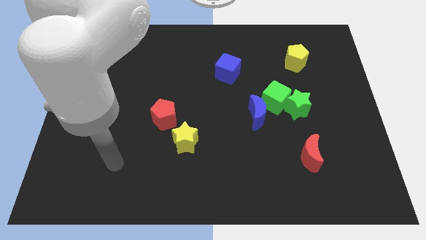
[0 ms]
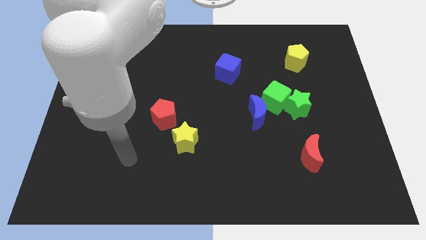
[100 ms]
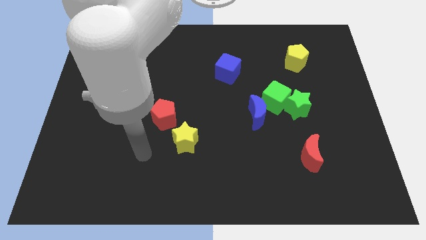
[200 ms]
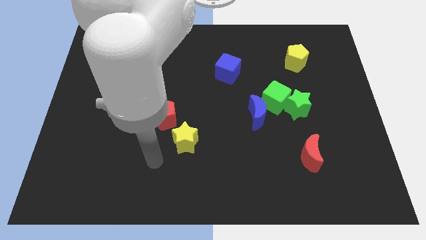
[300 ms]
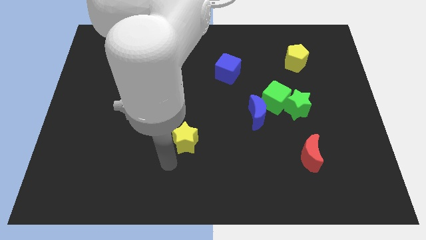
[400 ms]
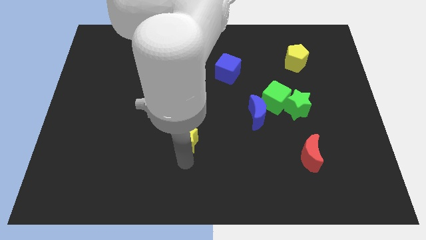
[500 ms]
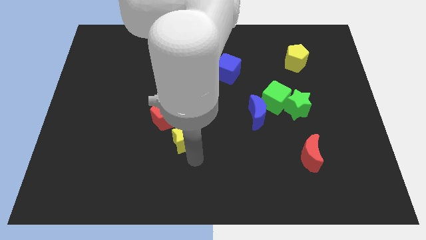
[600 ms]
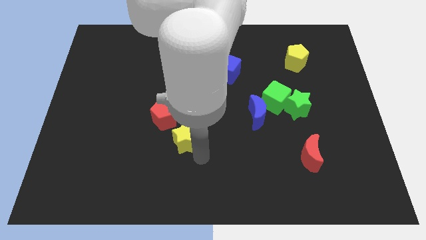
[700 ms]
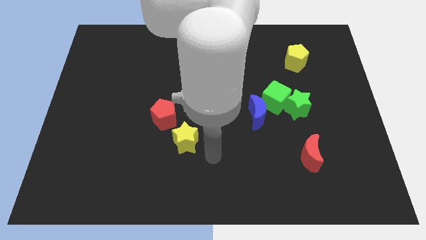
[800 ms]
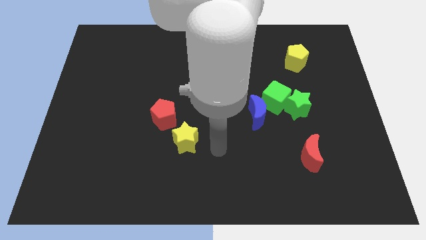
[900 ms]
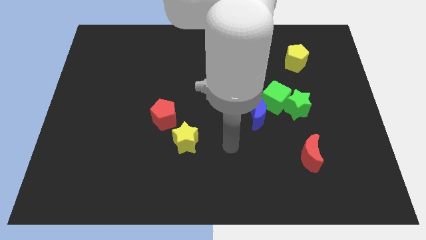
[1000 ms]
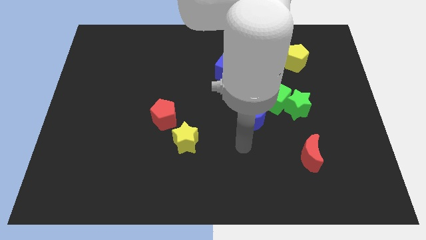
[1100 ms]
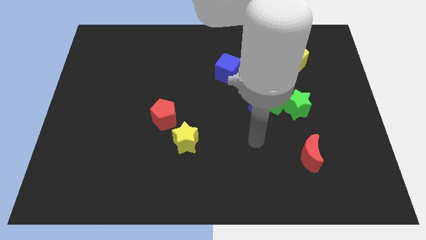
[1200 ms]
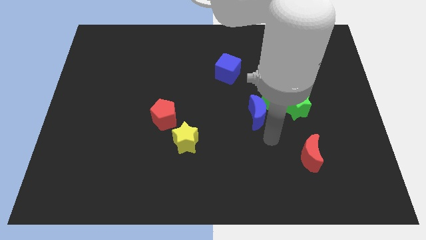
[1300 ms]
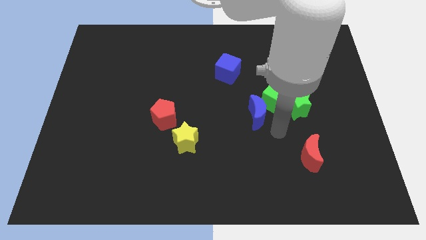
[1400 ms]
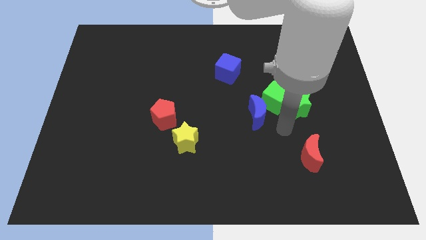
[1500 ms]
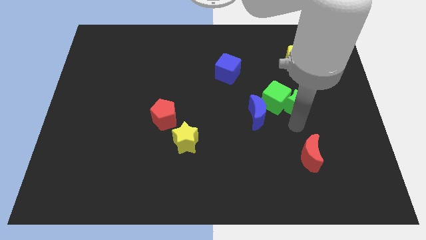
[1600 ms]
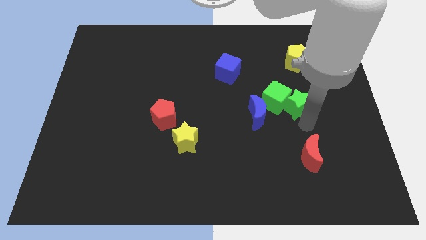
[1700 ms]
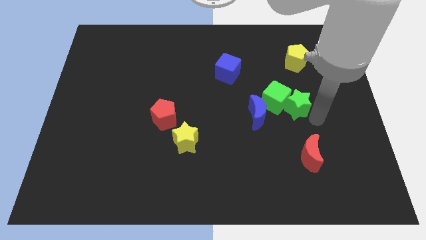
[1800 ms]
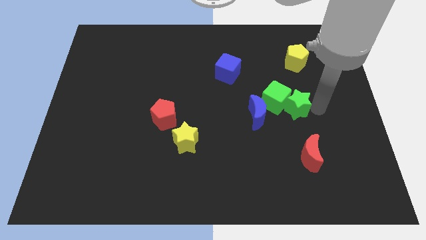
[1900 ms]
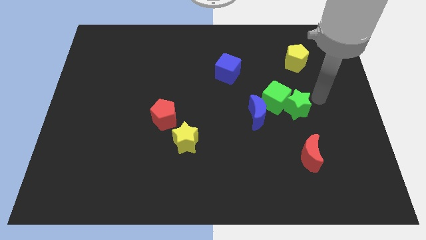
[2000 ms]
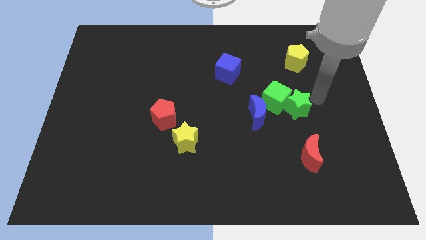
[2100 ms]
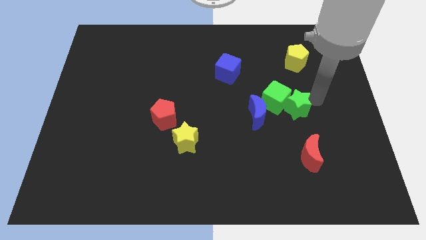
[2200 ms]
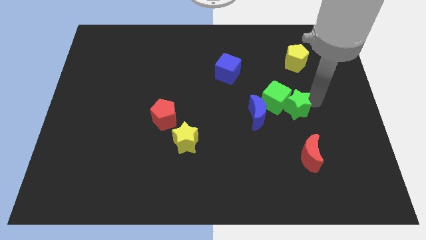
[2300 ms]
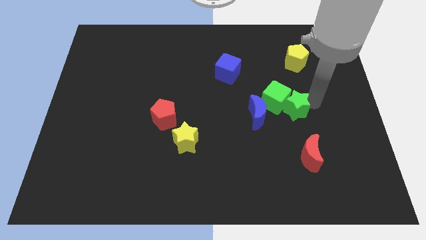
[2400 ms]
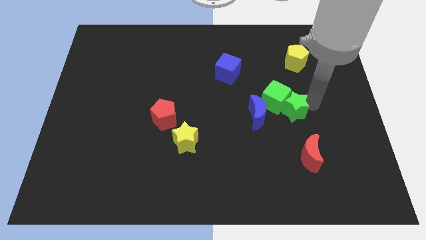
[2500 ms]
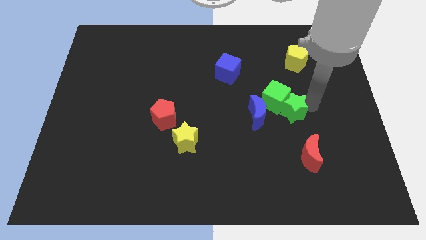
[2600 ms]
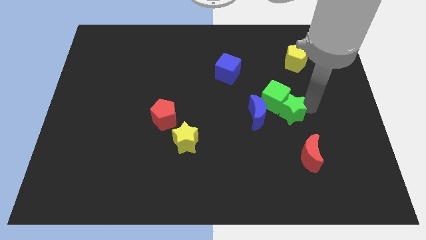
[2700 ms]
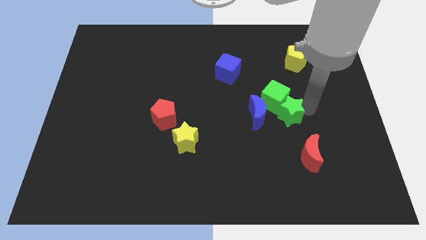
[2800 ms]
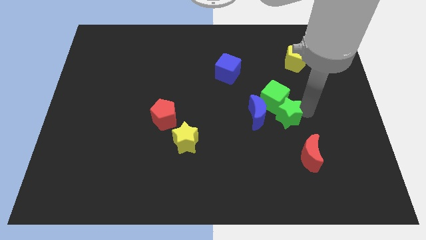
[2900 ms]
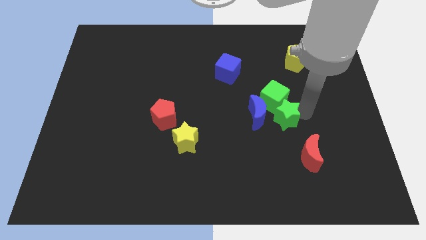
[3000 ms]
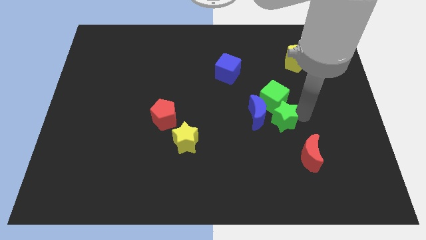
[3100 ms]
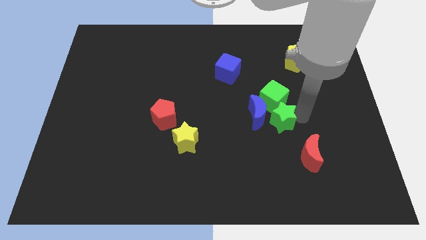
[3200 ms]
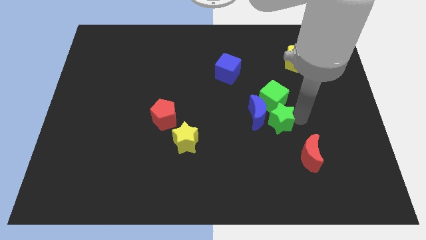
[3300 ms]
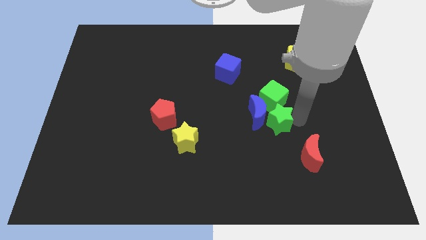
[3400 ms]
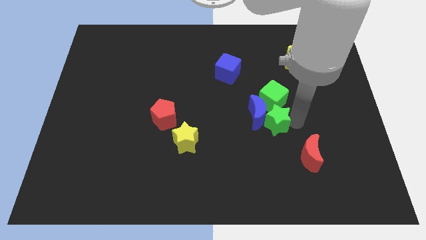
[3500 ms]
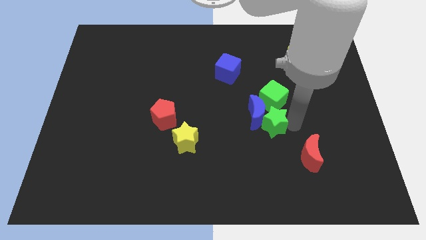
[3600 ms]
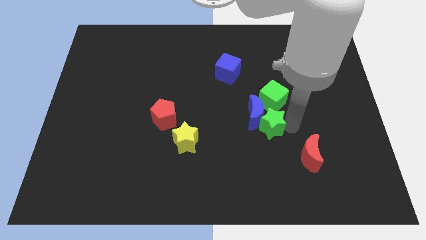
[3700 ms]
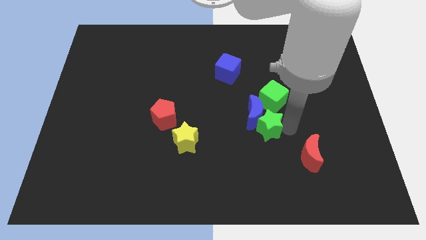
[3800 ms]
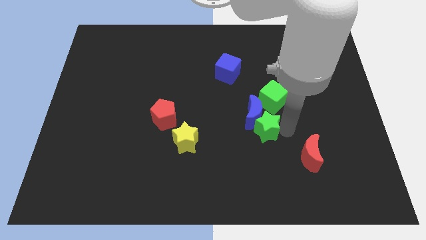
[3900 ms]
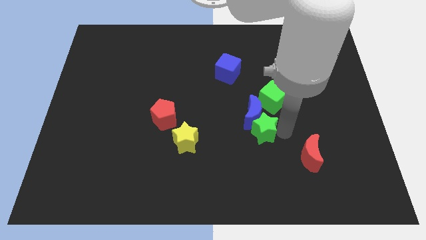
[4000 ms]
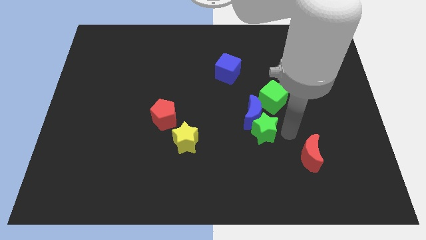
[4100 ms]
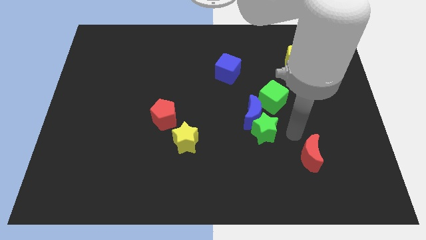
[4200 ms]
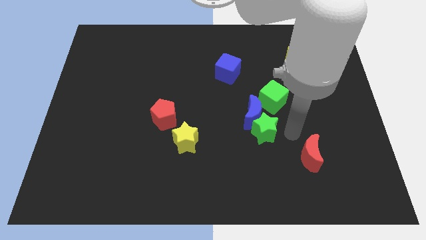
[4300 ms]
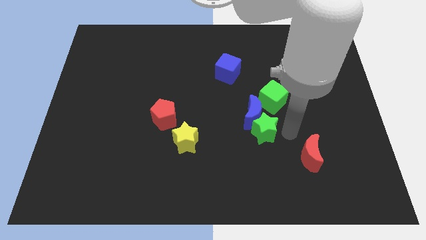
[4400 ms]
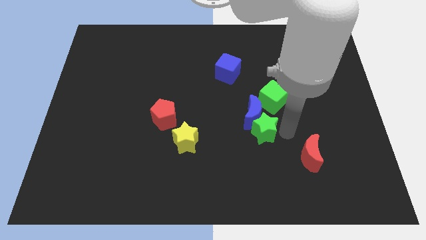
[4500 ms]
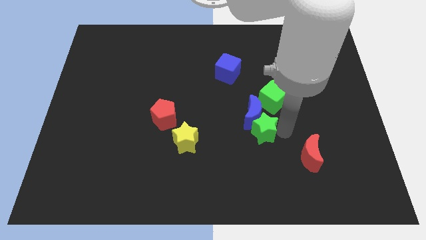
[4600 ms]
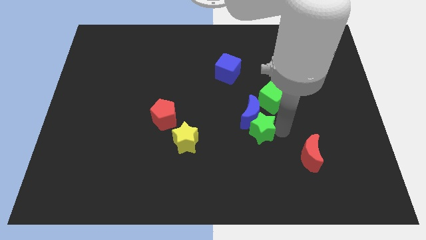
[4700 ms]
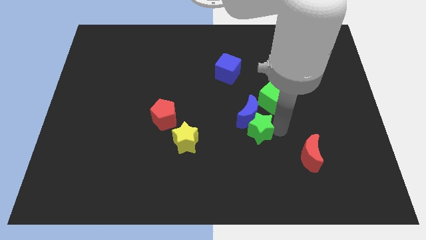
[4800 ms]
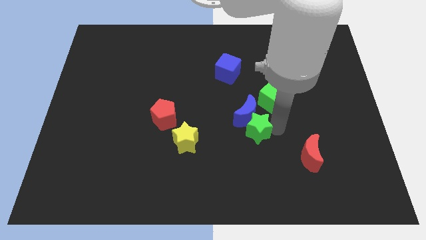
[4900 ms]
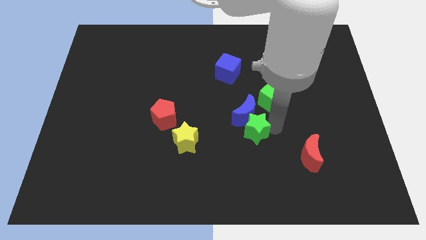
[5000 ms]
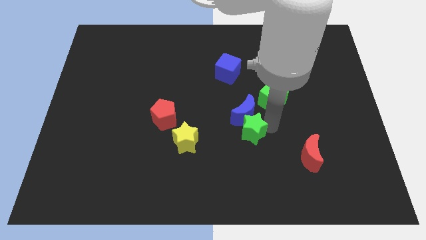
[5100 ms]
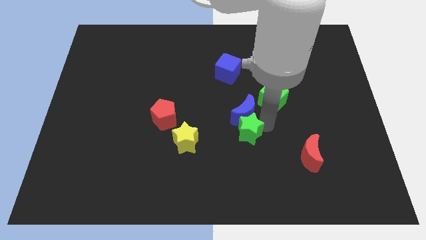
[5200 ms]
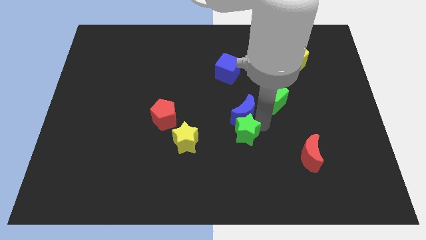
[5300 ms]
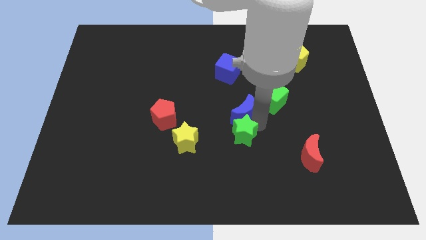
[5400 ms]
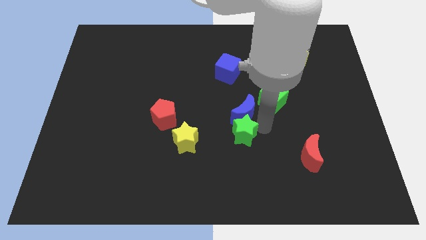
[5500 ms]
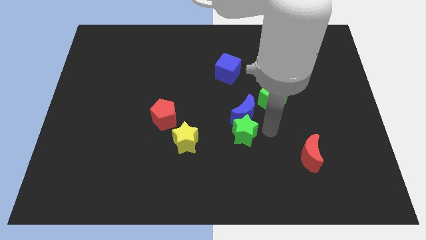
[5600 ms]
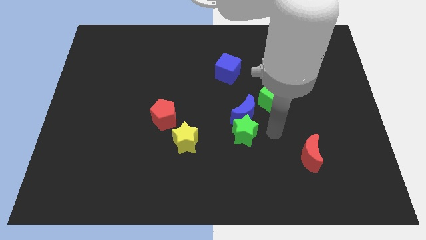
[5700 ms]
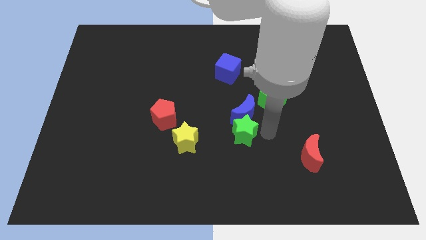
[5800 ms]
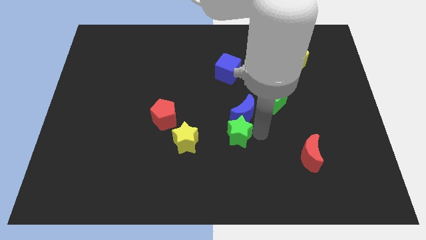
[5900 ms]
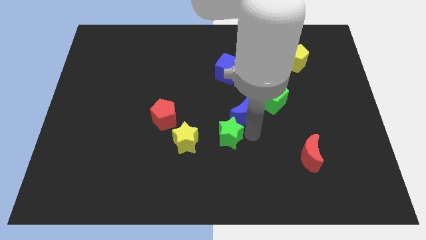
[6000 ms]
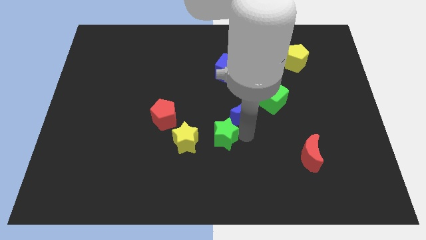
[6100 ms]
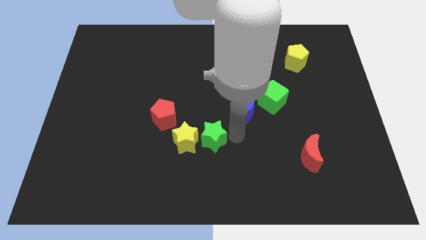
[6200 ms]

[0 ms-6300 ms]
slide the green star close to the yellow star
